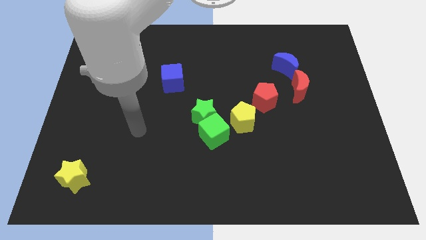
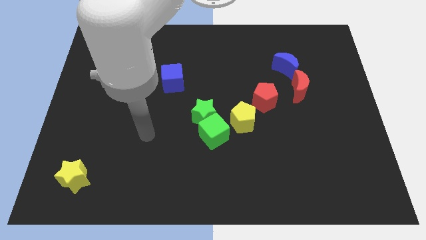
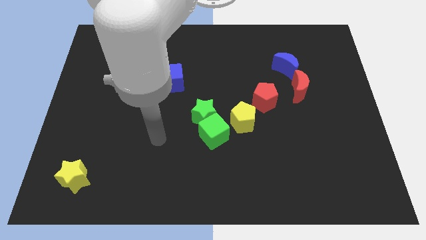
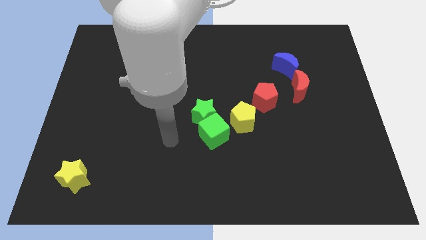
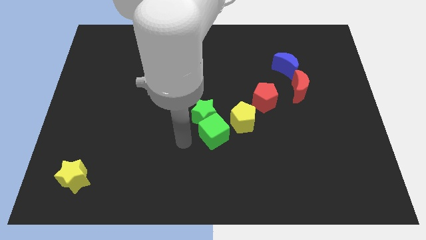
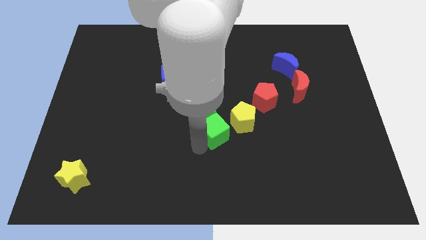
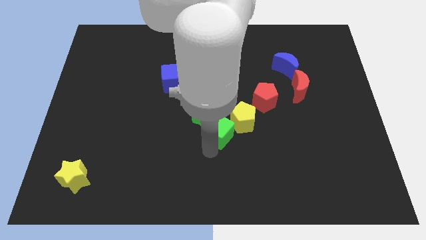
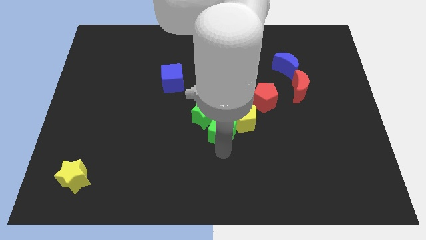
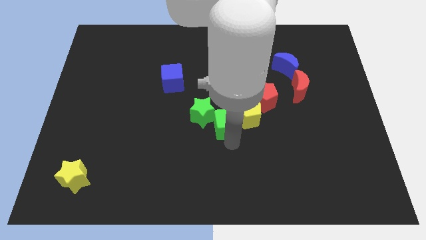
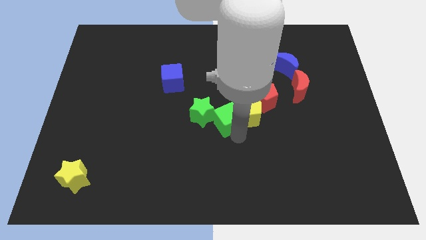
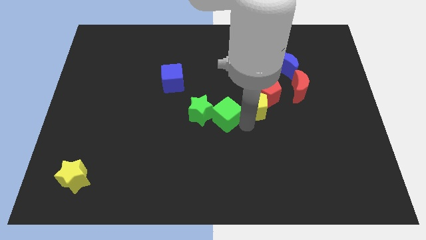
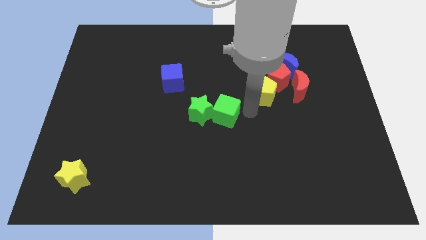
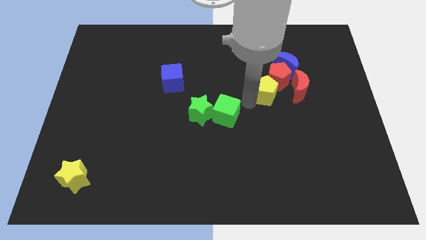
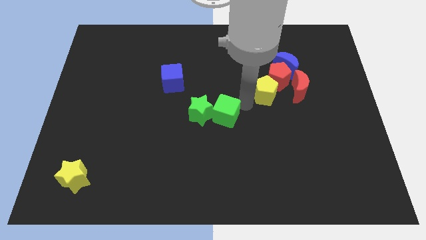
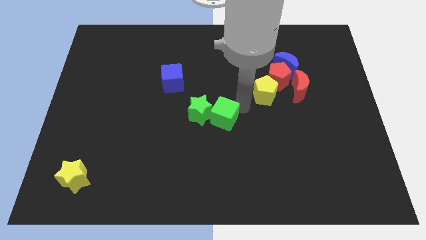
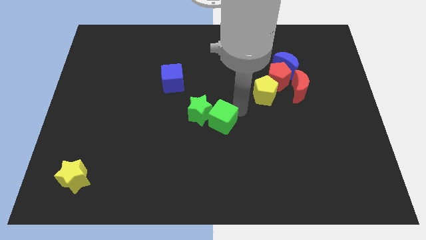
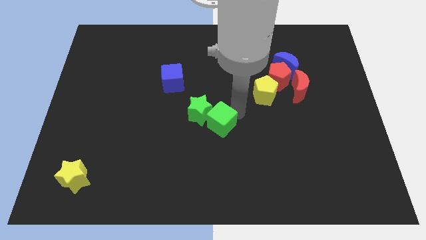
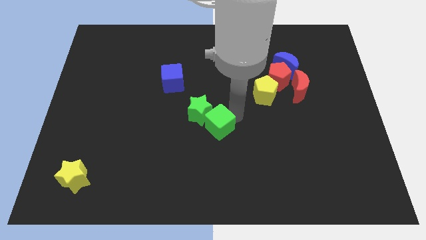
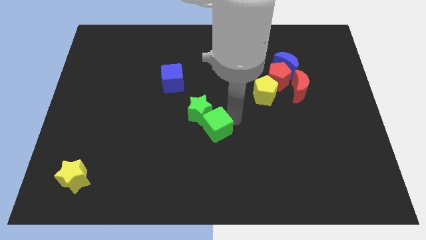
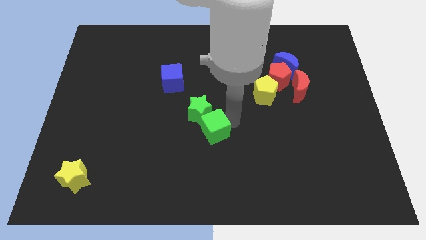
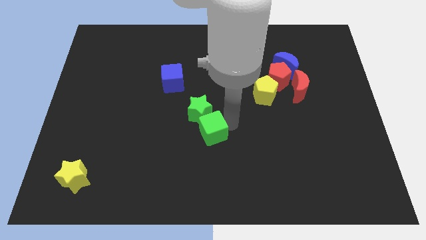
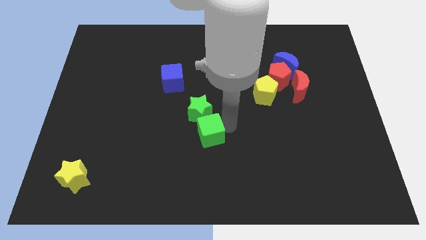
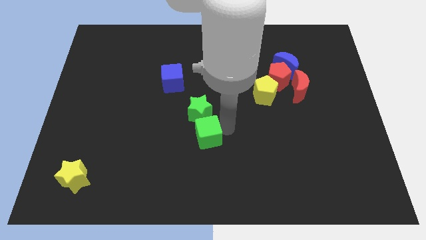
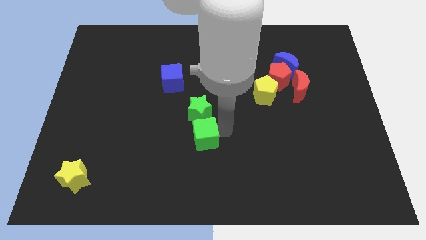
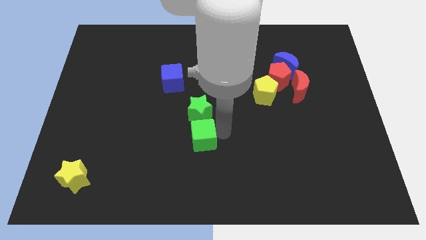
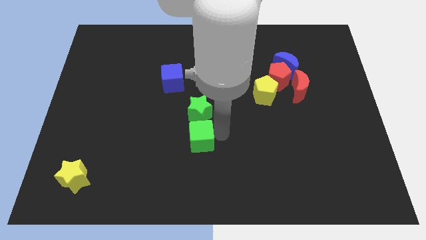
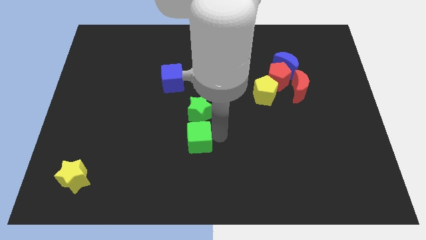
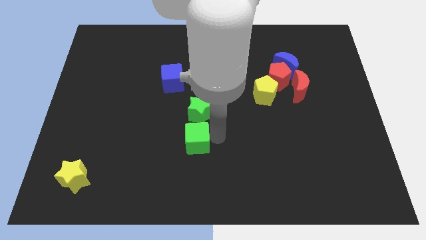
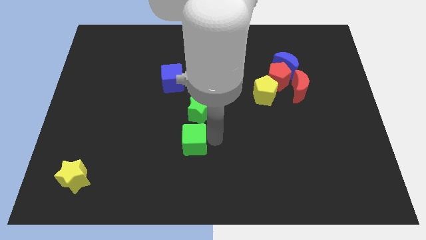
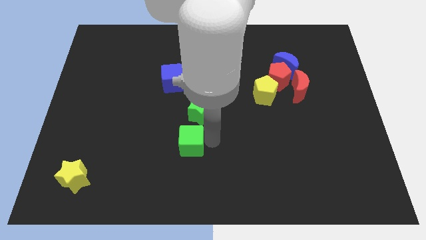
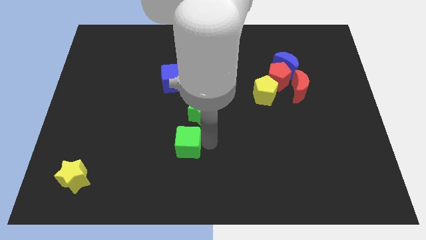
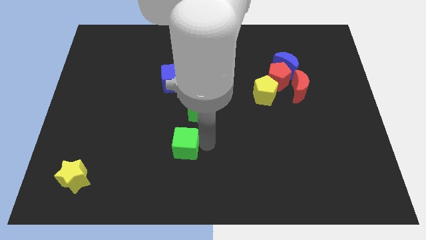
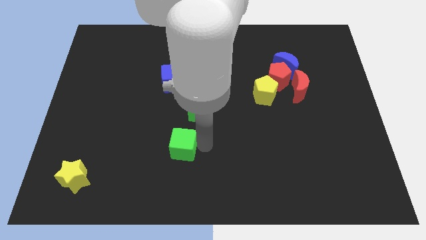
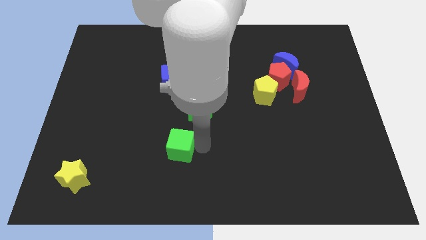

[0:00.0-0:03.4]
slide the green cube to the left somewhat

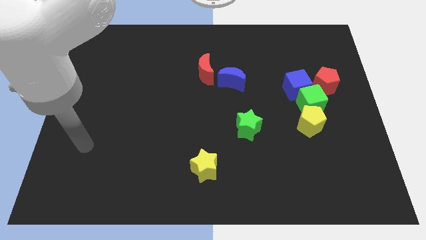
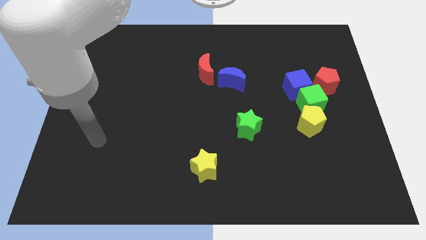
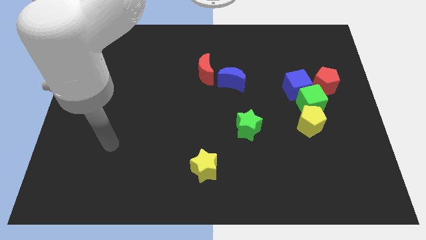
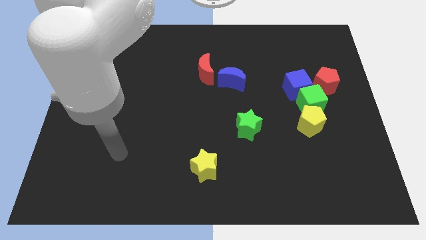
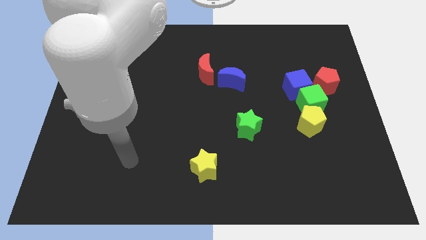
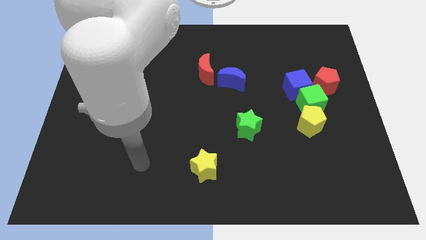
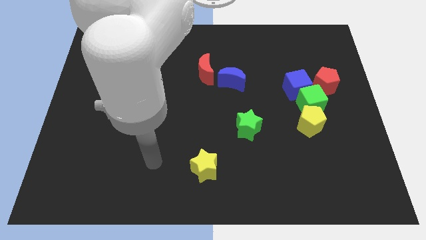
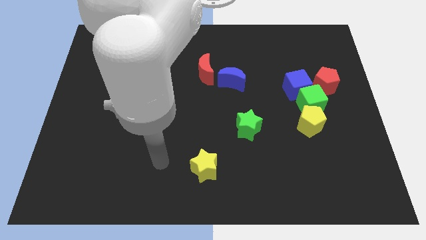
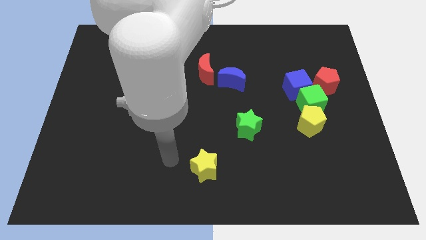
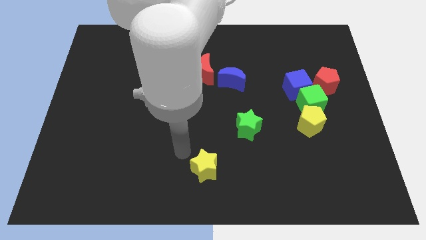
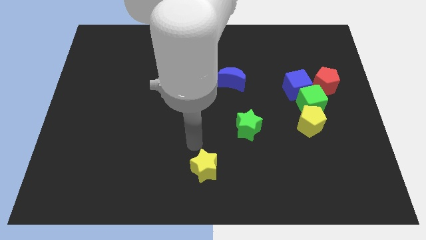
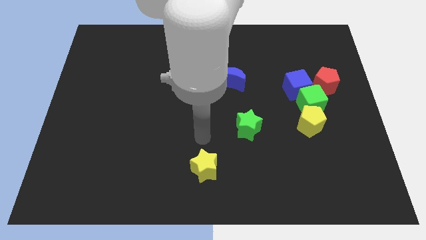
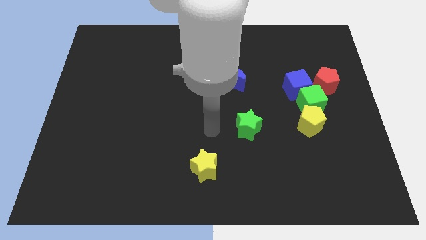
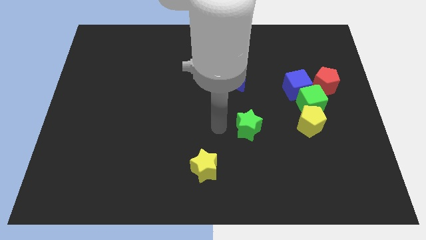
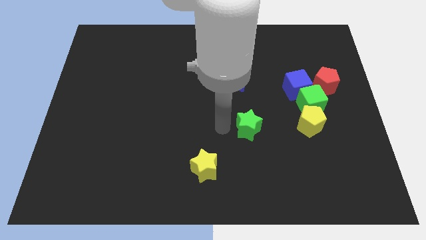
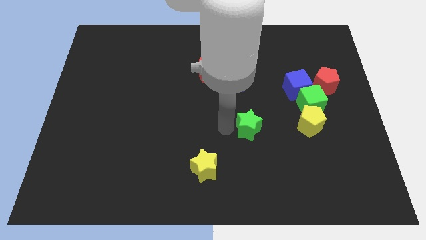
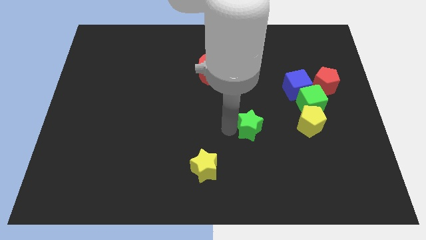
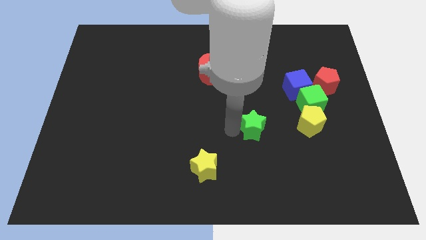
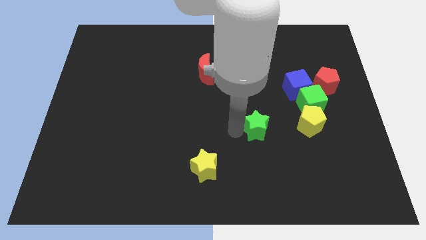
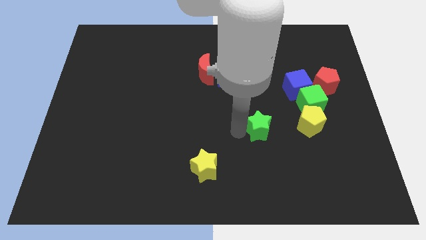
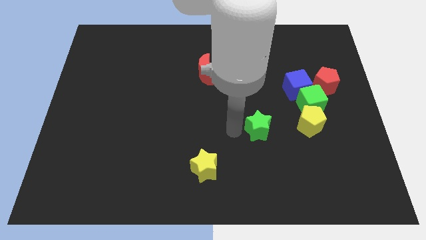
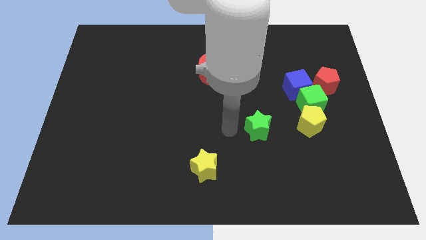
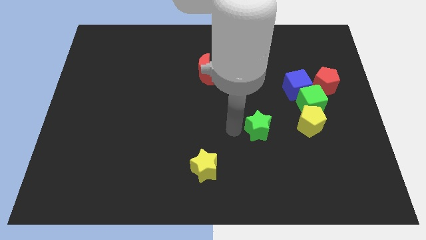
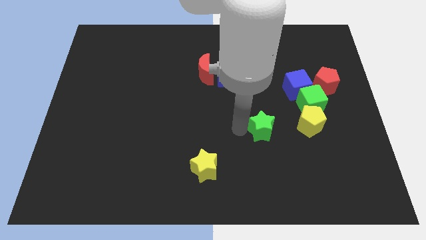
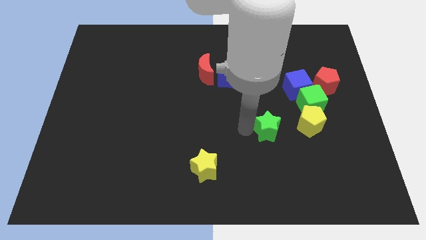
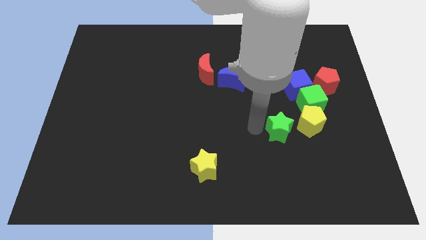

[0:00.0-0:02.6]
slide the green star to the right slightly

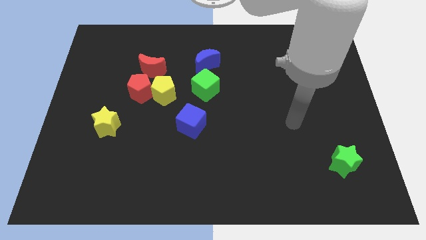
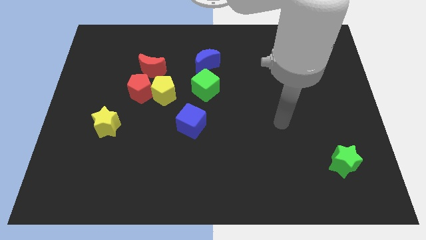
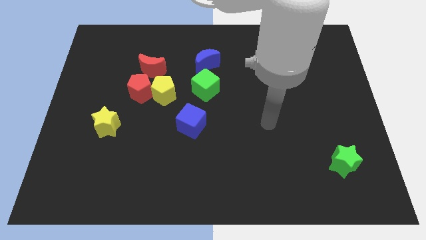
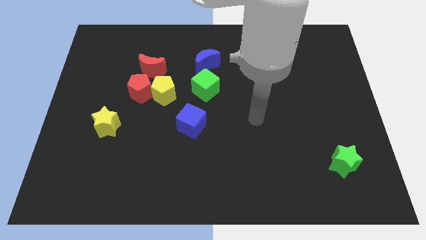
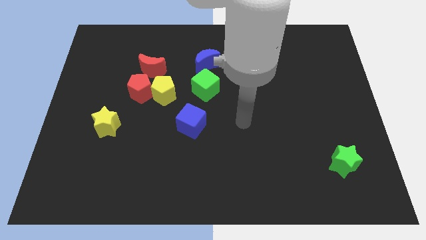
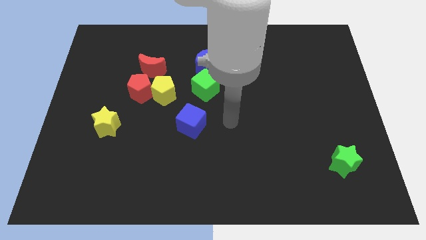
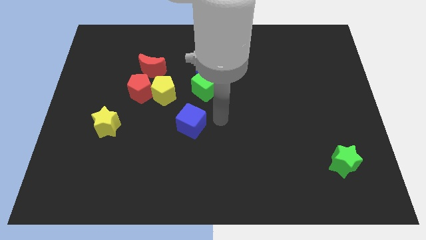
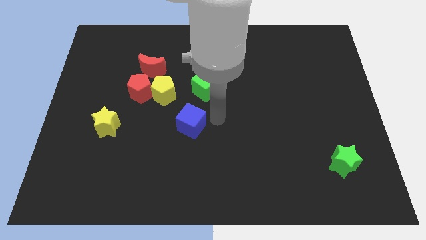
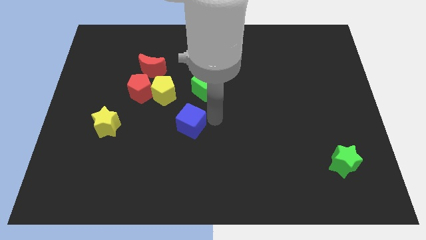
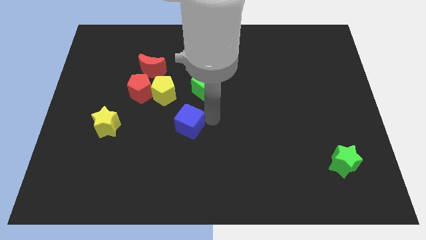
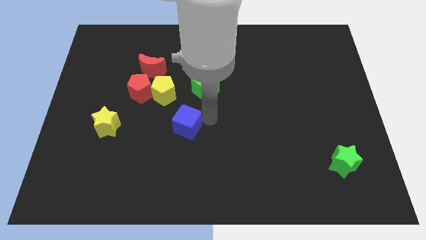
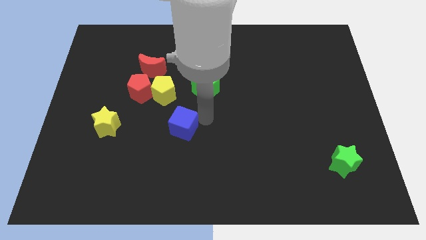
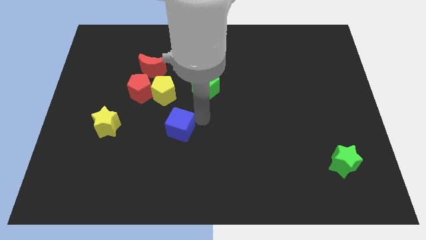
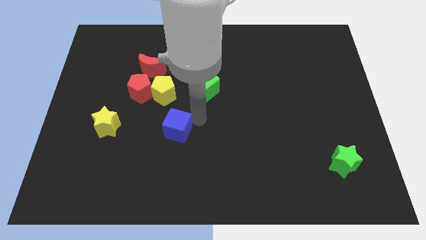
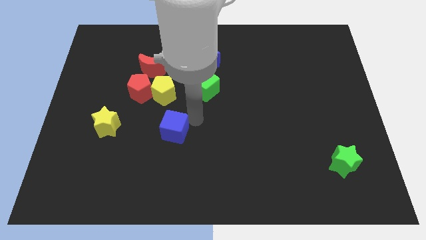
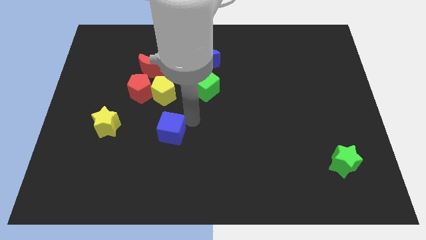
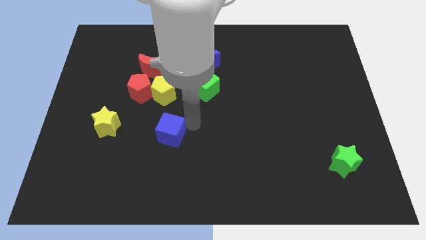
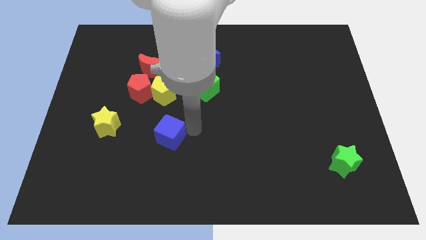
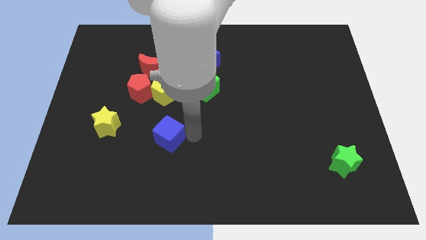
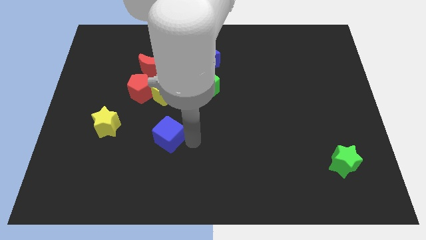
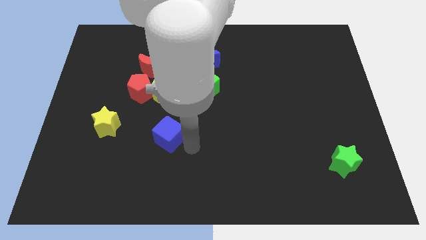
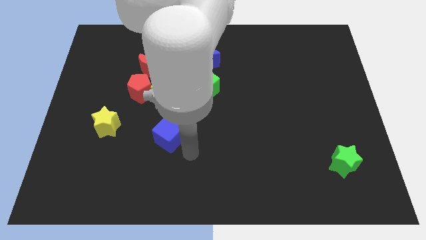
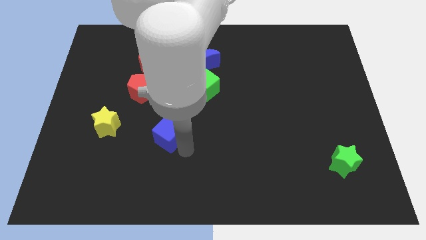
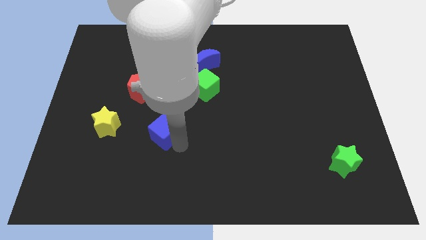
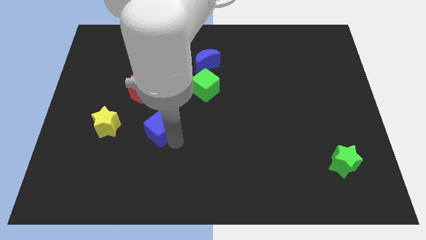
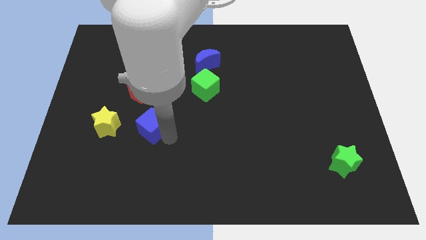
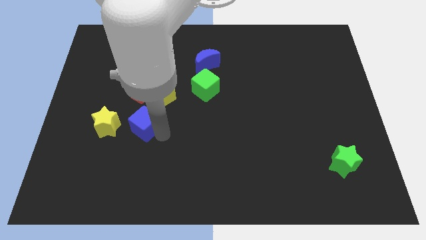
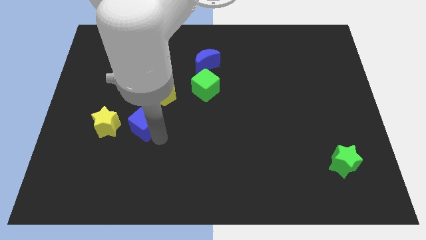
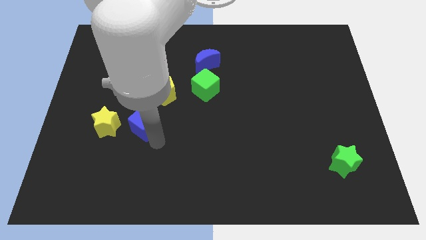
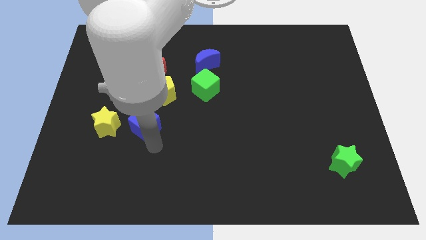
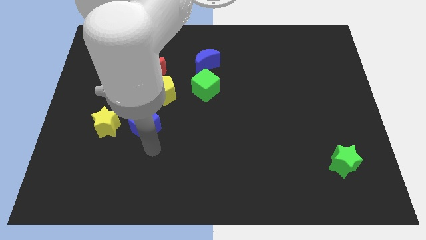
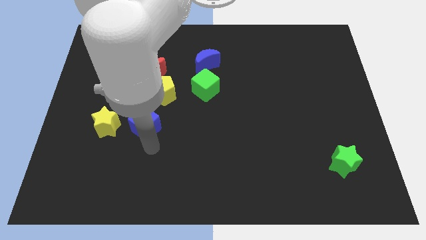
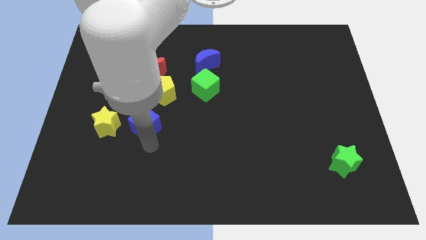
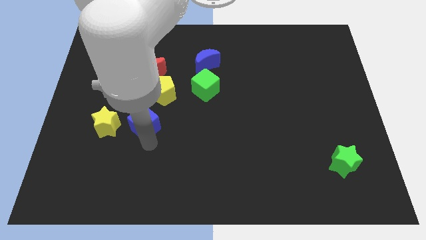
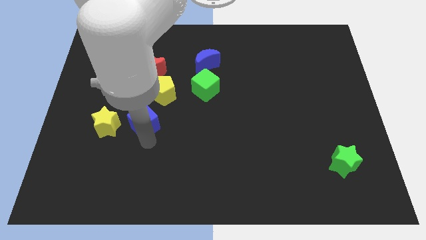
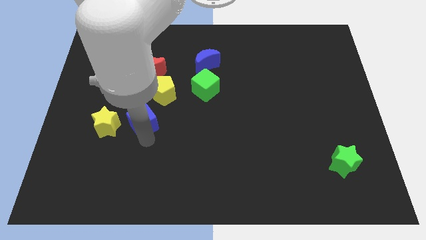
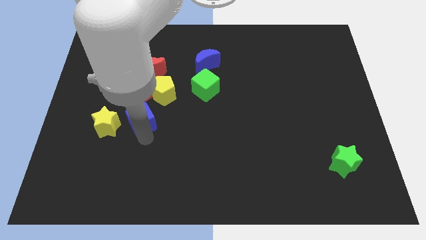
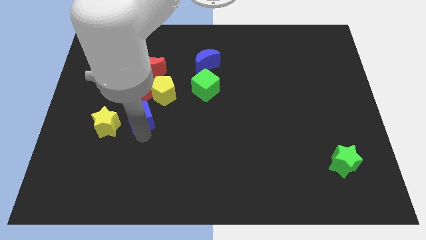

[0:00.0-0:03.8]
slide the blue cube diagonally up and to the left a little
